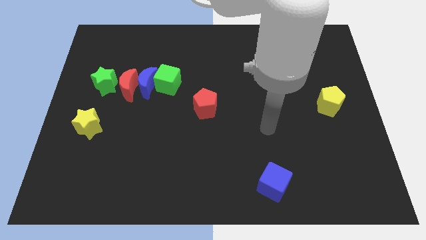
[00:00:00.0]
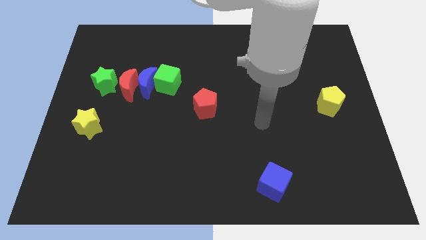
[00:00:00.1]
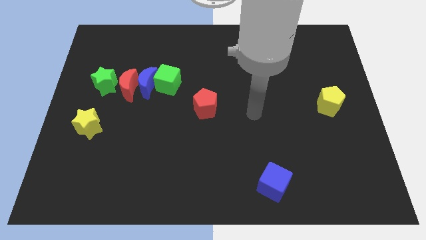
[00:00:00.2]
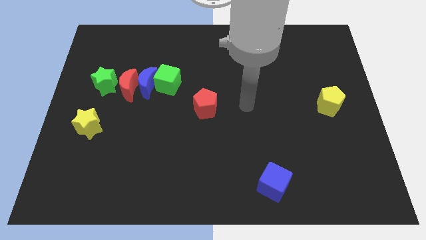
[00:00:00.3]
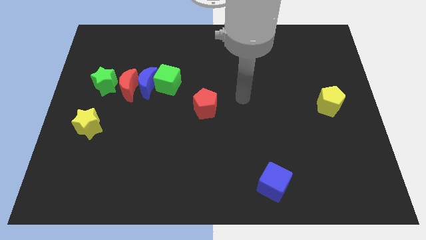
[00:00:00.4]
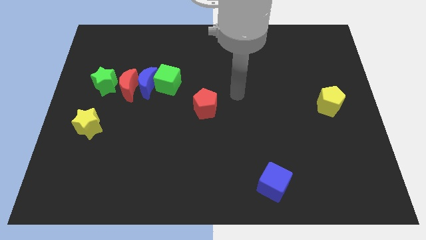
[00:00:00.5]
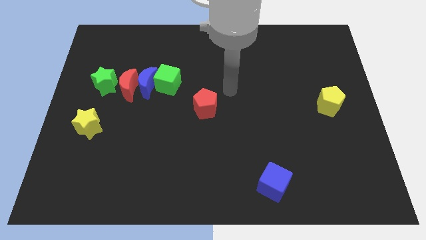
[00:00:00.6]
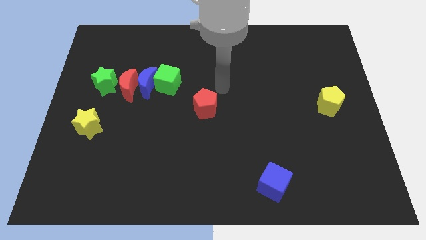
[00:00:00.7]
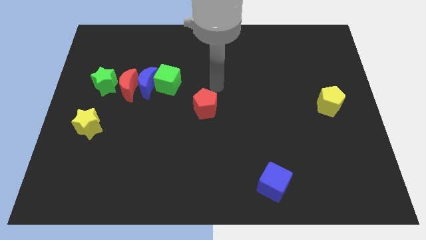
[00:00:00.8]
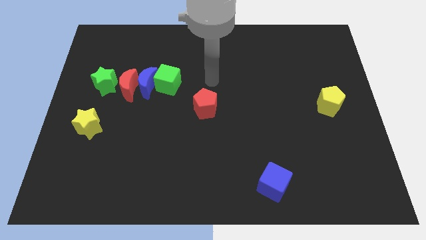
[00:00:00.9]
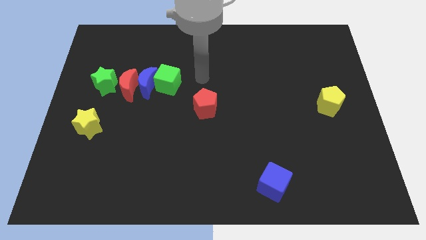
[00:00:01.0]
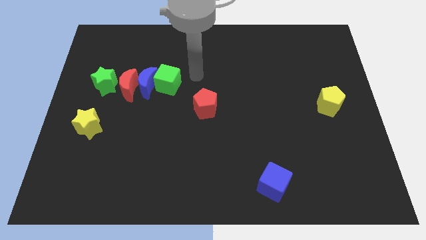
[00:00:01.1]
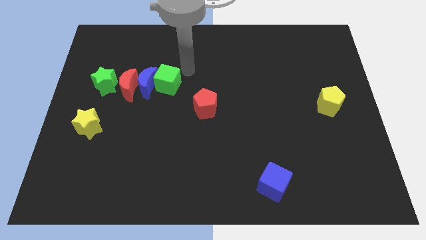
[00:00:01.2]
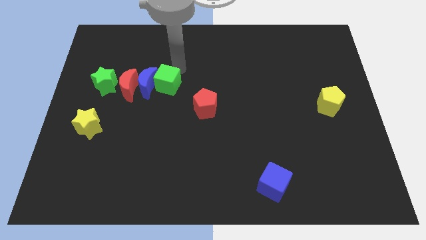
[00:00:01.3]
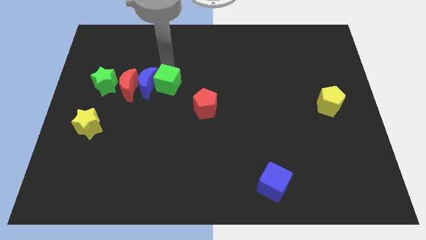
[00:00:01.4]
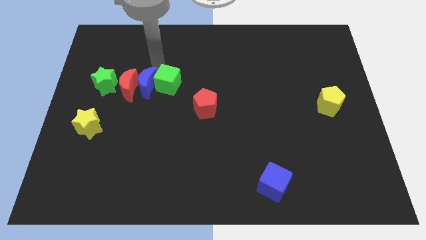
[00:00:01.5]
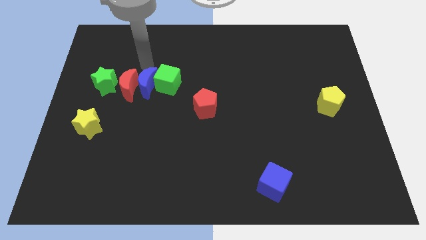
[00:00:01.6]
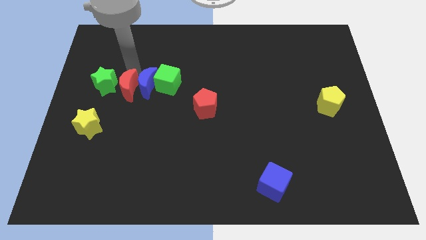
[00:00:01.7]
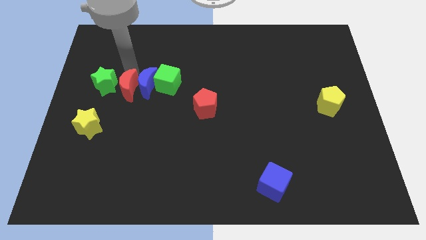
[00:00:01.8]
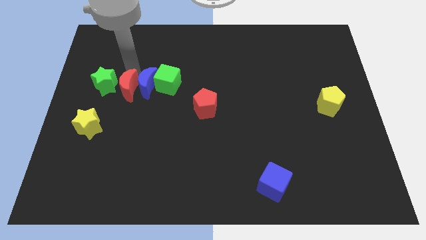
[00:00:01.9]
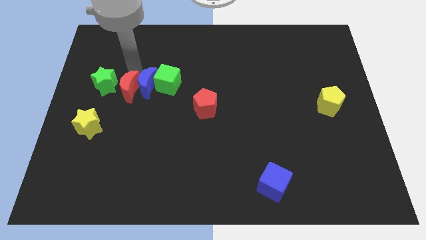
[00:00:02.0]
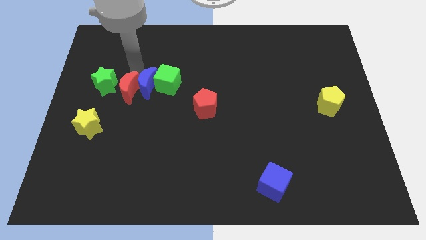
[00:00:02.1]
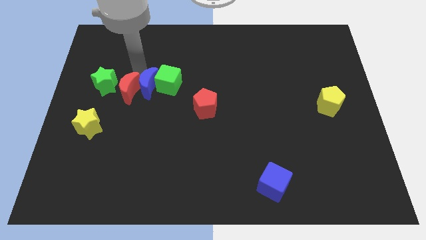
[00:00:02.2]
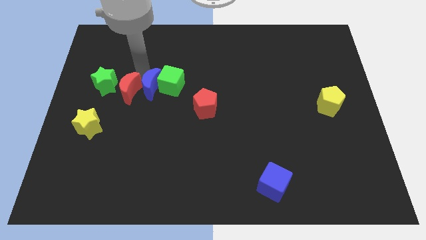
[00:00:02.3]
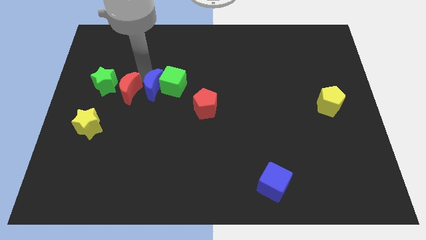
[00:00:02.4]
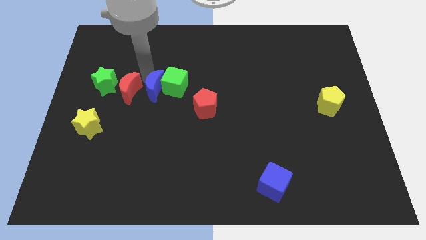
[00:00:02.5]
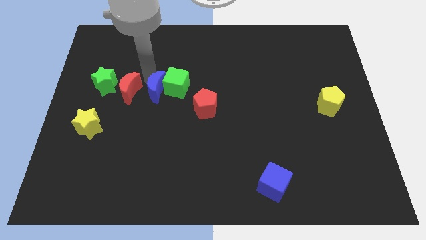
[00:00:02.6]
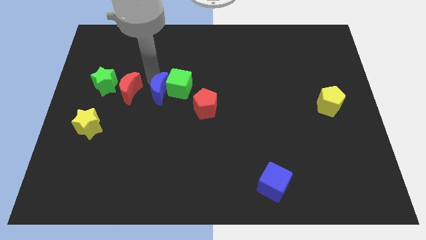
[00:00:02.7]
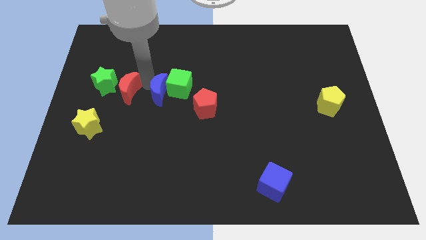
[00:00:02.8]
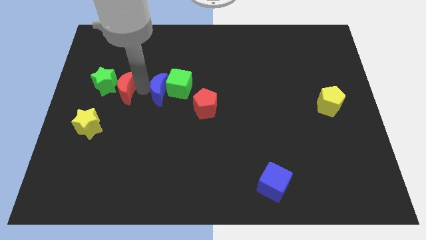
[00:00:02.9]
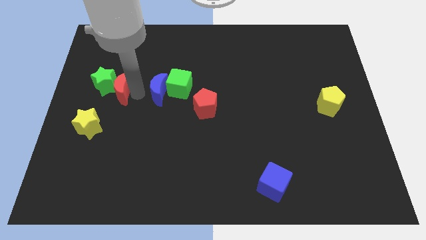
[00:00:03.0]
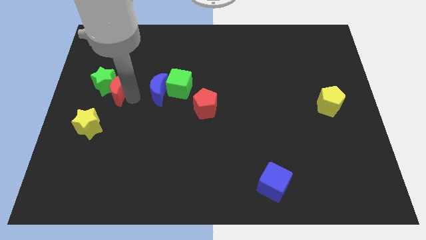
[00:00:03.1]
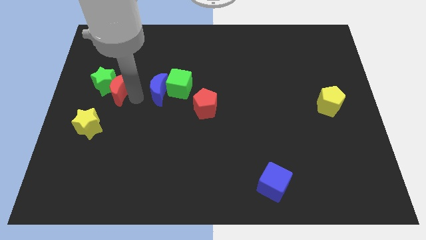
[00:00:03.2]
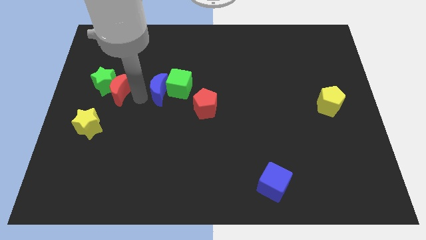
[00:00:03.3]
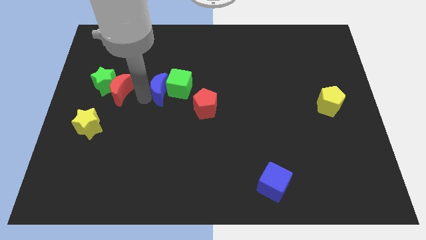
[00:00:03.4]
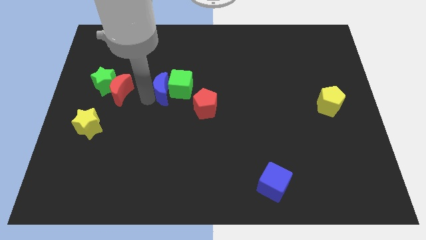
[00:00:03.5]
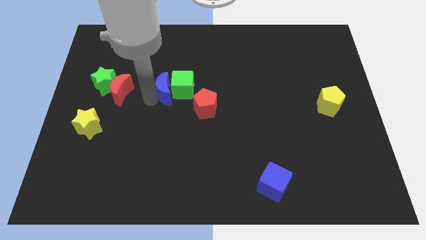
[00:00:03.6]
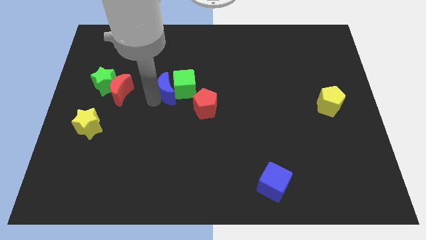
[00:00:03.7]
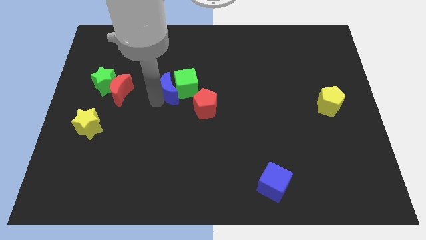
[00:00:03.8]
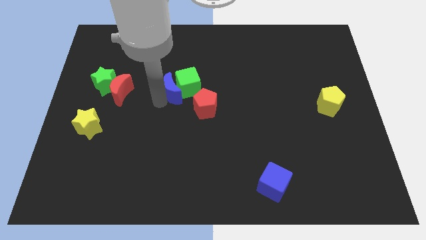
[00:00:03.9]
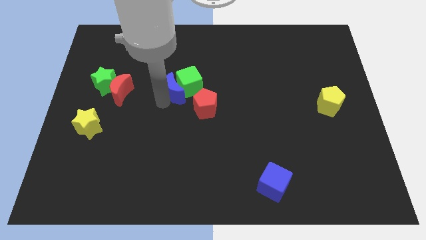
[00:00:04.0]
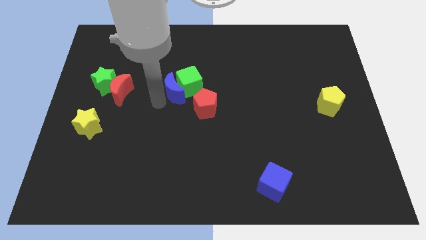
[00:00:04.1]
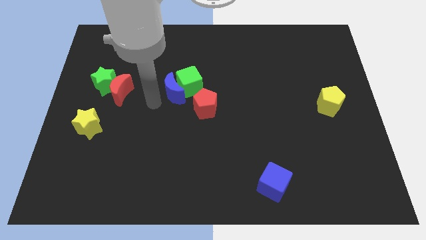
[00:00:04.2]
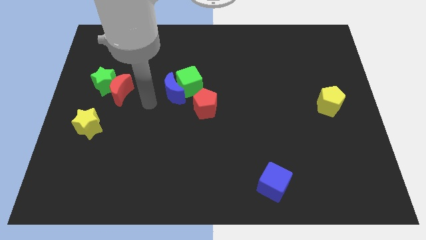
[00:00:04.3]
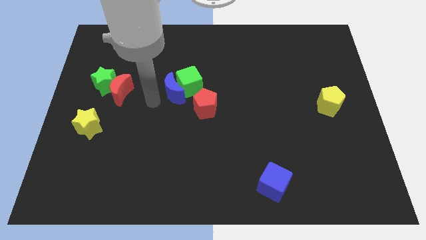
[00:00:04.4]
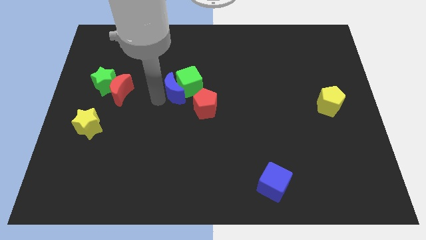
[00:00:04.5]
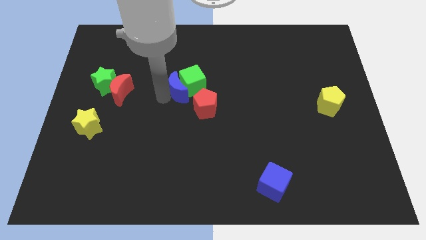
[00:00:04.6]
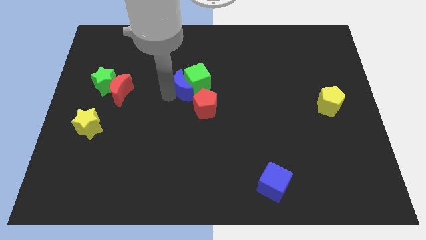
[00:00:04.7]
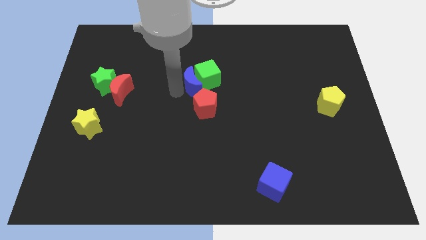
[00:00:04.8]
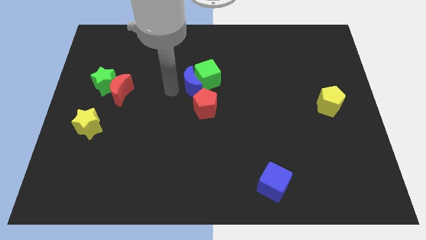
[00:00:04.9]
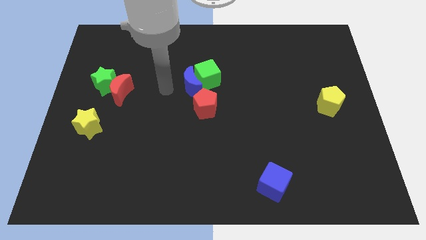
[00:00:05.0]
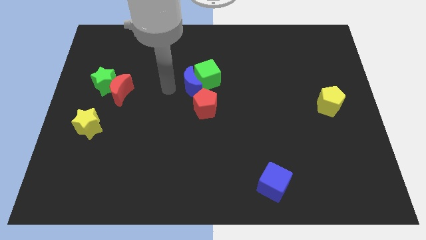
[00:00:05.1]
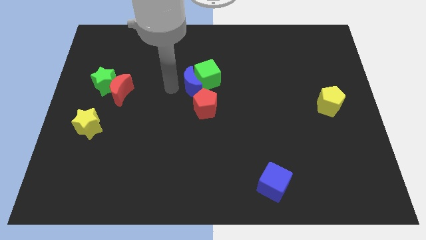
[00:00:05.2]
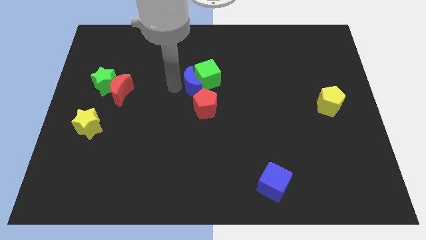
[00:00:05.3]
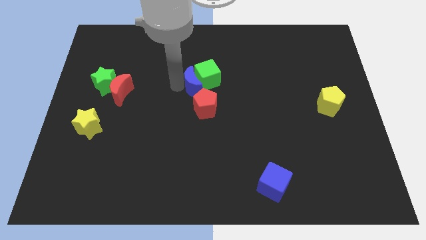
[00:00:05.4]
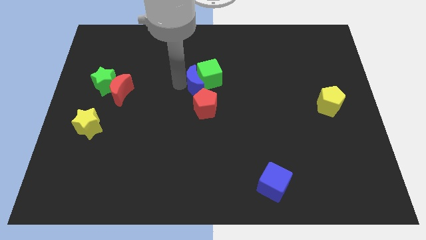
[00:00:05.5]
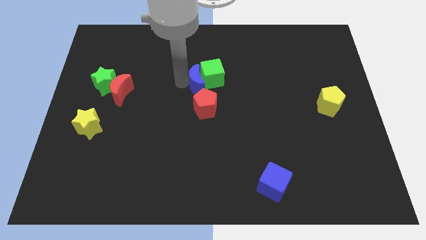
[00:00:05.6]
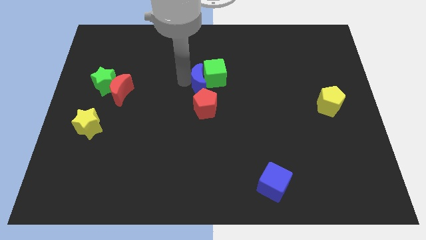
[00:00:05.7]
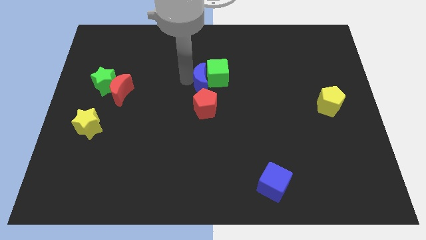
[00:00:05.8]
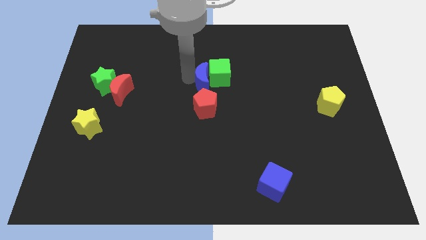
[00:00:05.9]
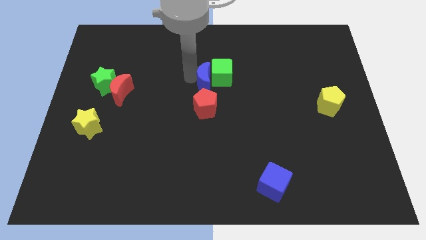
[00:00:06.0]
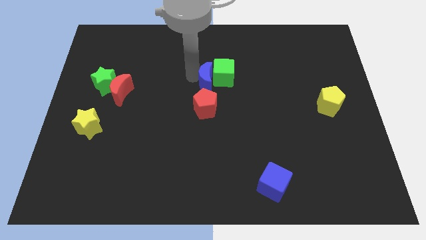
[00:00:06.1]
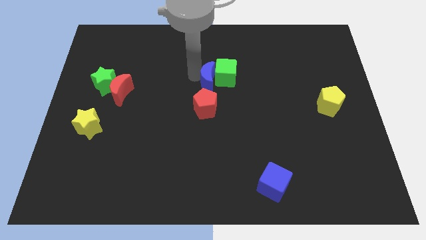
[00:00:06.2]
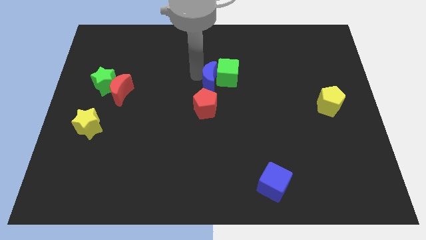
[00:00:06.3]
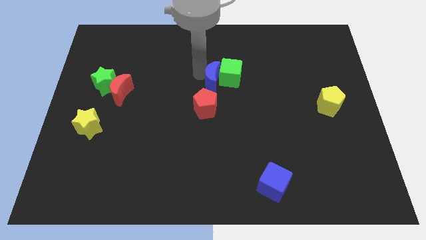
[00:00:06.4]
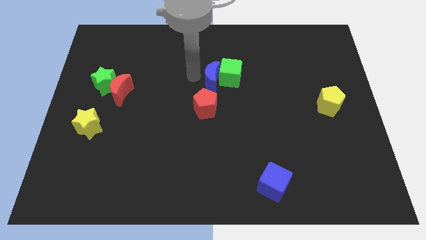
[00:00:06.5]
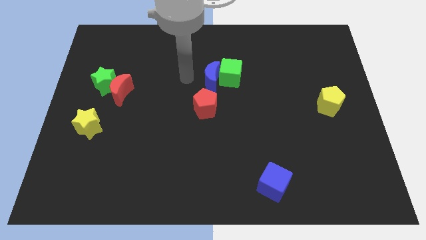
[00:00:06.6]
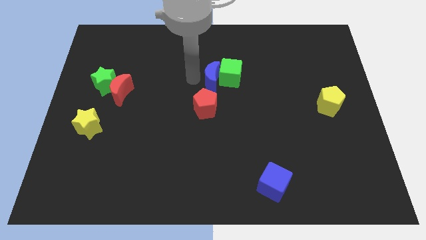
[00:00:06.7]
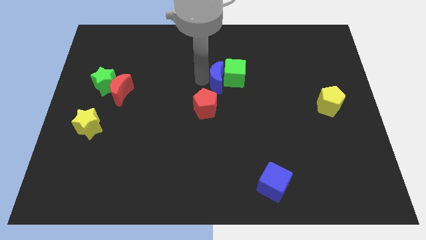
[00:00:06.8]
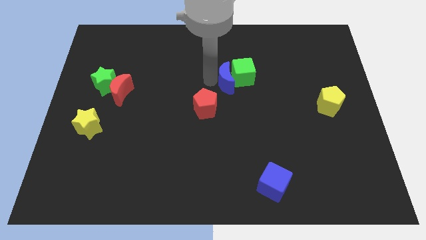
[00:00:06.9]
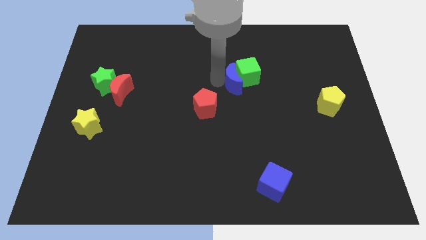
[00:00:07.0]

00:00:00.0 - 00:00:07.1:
move the blue moon to the right

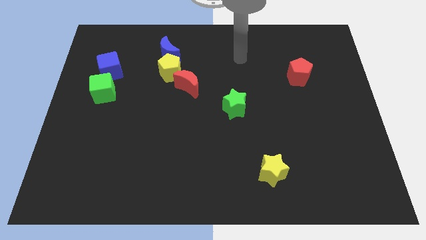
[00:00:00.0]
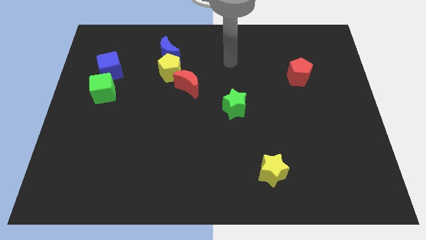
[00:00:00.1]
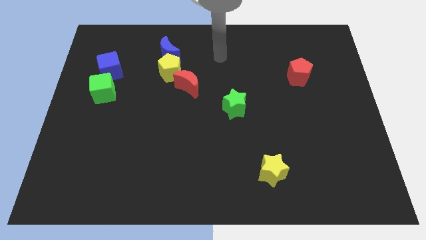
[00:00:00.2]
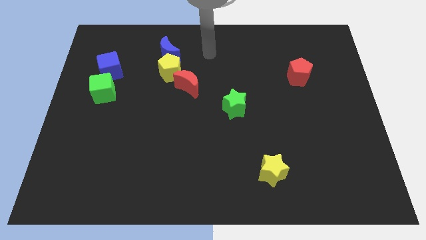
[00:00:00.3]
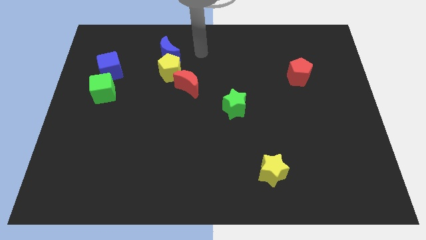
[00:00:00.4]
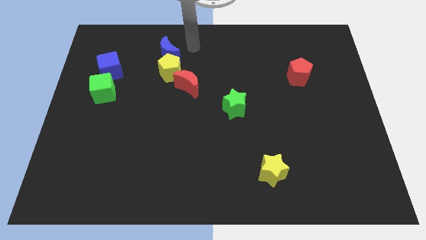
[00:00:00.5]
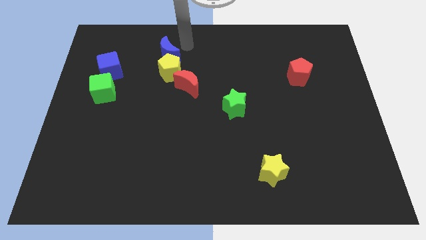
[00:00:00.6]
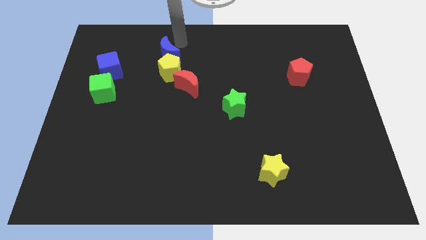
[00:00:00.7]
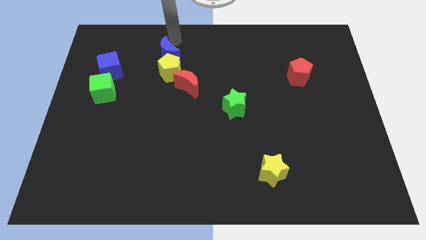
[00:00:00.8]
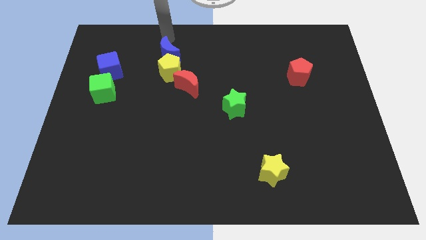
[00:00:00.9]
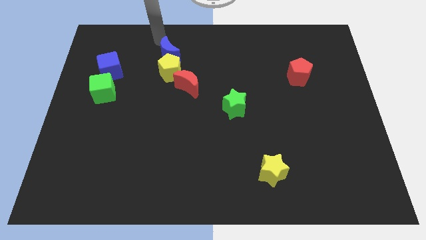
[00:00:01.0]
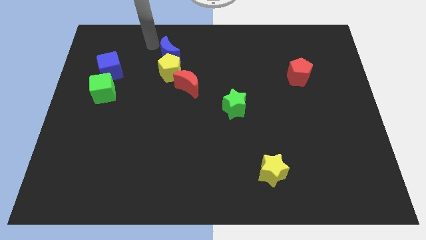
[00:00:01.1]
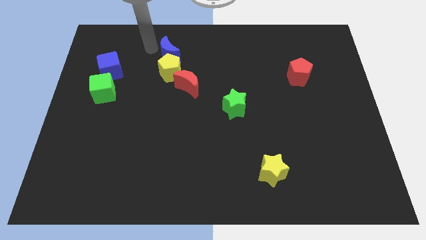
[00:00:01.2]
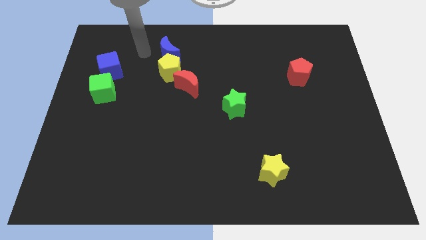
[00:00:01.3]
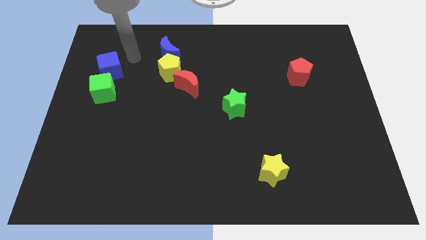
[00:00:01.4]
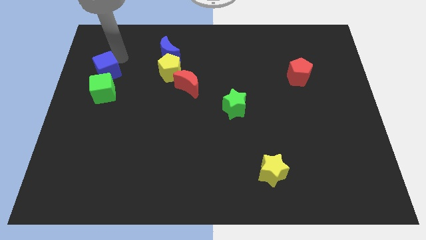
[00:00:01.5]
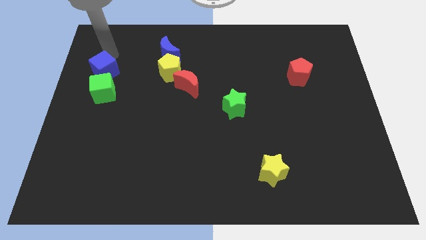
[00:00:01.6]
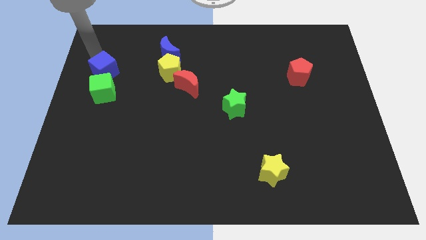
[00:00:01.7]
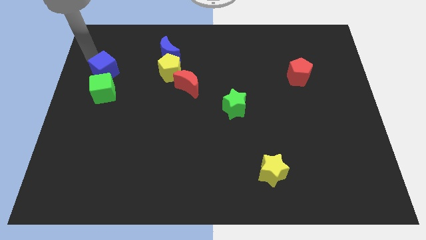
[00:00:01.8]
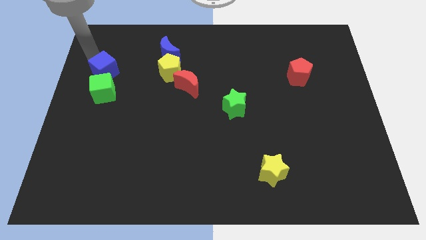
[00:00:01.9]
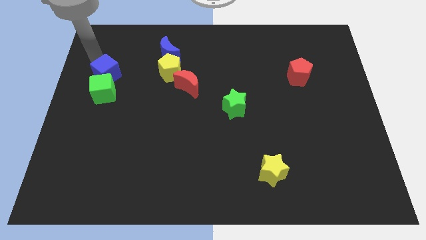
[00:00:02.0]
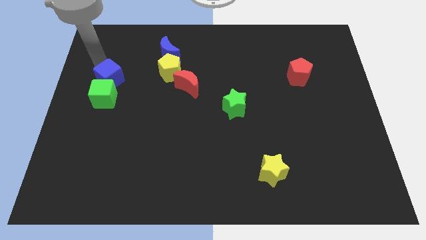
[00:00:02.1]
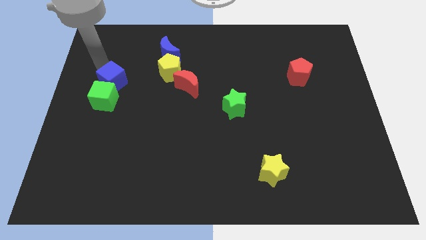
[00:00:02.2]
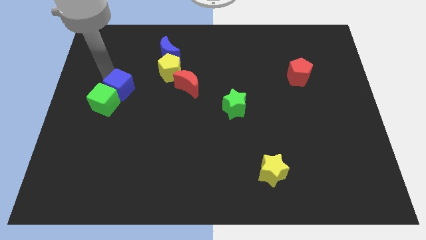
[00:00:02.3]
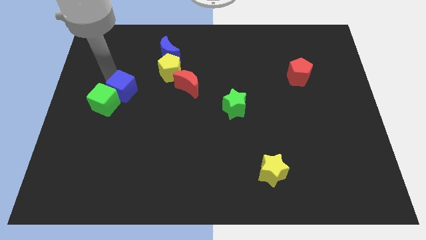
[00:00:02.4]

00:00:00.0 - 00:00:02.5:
slightly slide the blue cube downwards and to the right
